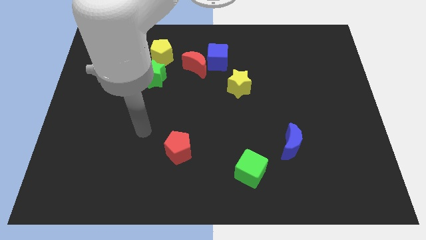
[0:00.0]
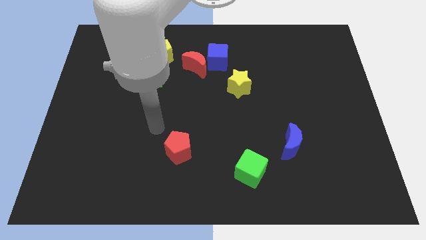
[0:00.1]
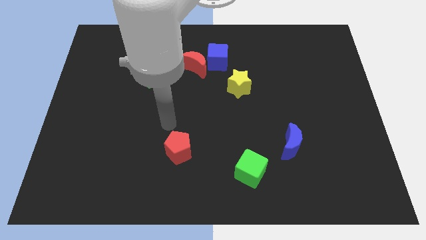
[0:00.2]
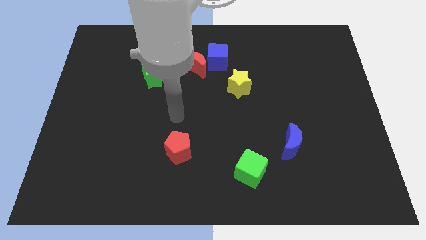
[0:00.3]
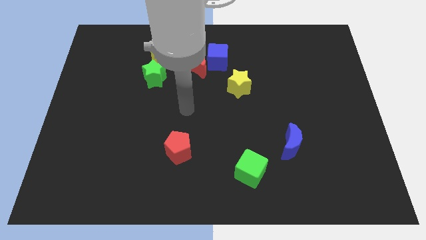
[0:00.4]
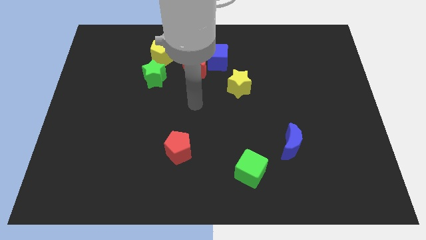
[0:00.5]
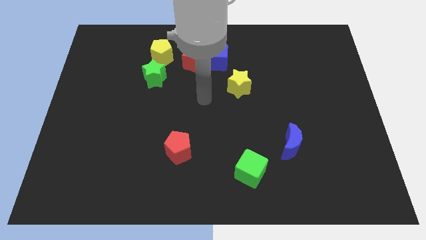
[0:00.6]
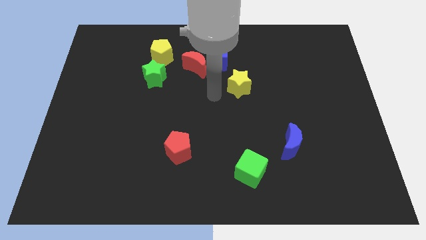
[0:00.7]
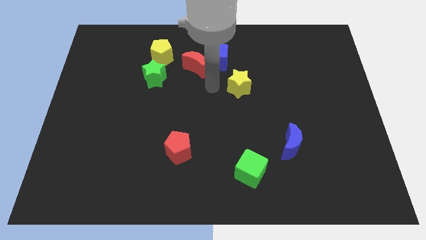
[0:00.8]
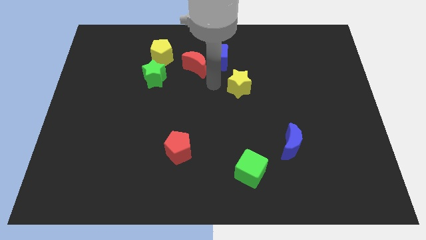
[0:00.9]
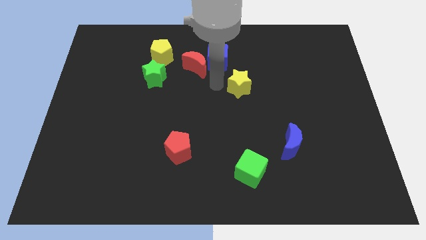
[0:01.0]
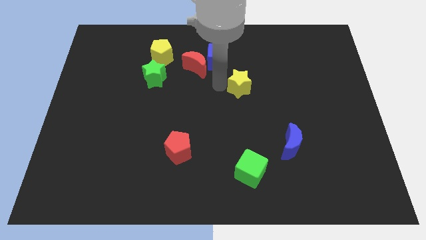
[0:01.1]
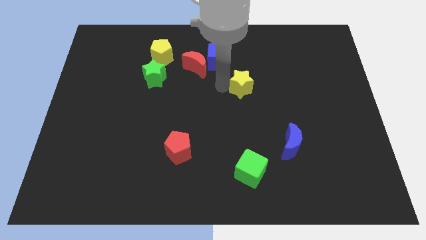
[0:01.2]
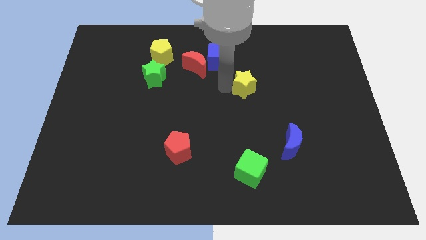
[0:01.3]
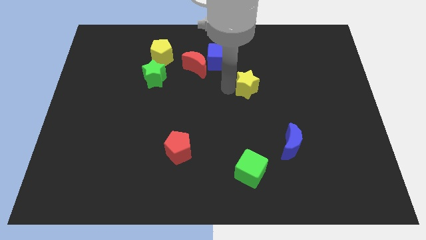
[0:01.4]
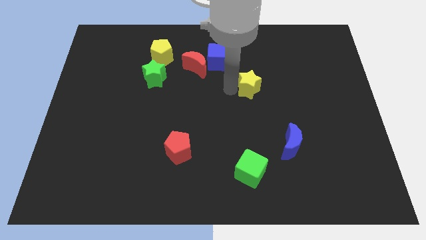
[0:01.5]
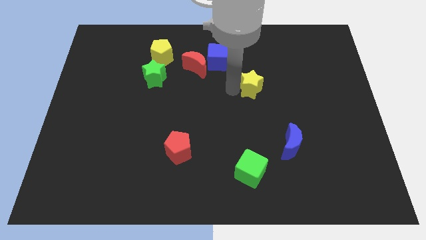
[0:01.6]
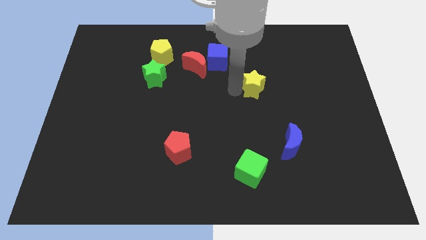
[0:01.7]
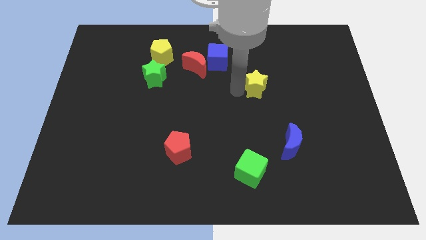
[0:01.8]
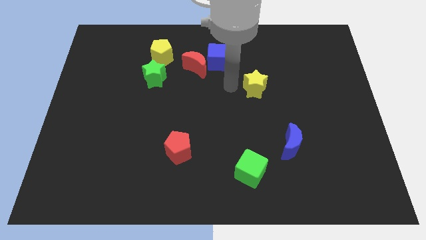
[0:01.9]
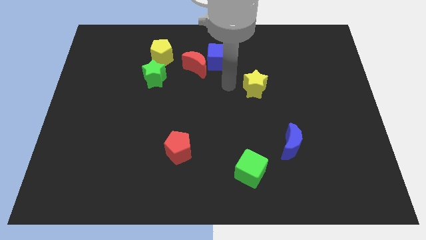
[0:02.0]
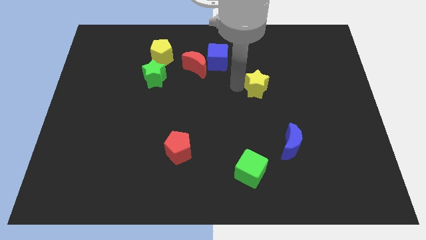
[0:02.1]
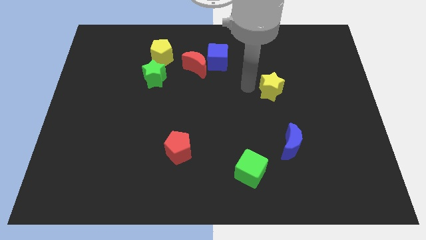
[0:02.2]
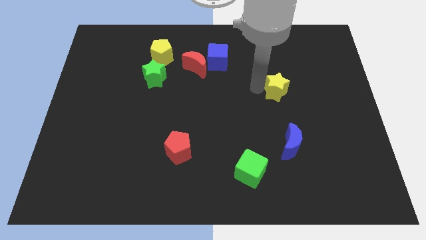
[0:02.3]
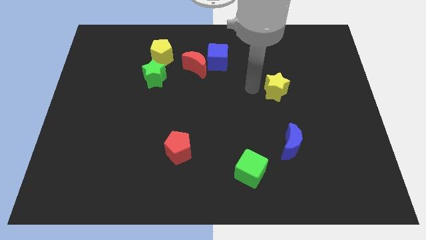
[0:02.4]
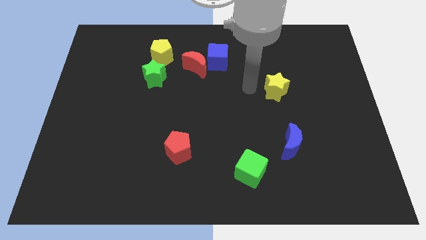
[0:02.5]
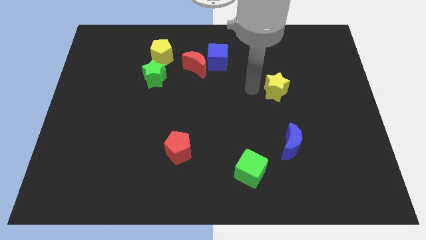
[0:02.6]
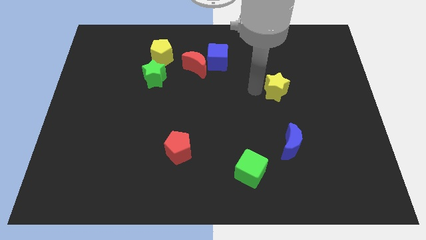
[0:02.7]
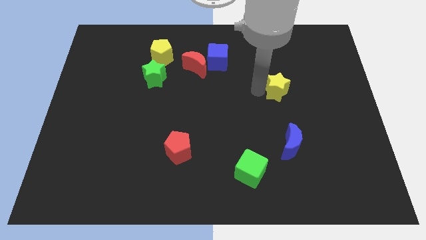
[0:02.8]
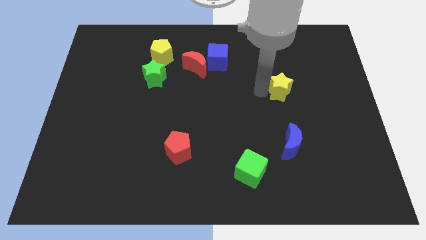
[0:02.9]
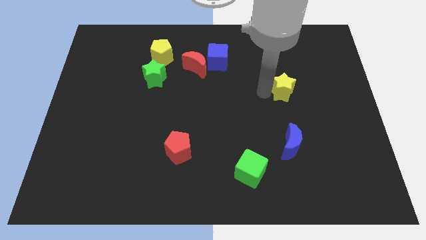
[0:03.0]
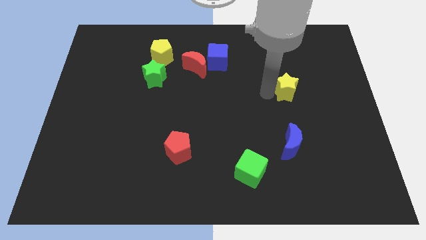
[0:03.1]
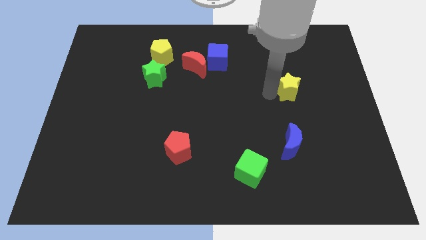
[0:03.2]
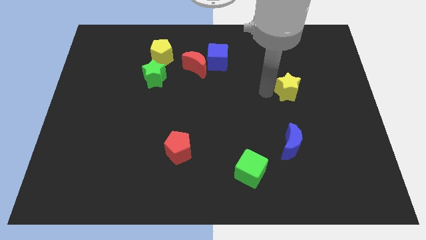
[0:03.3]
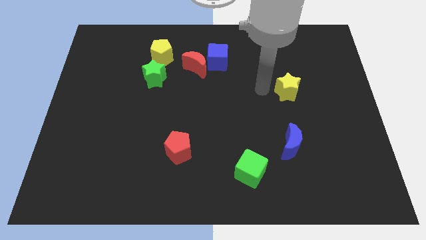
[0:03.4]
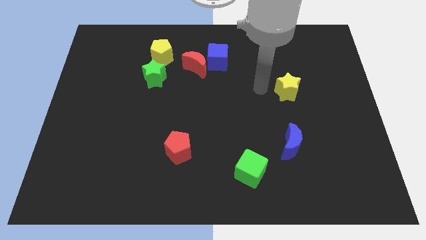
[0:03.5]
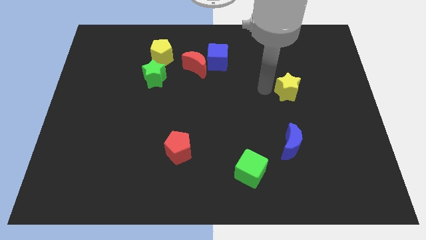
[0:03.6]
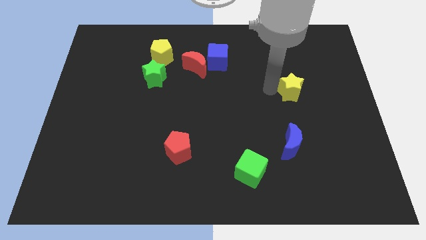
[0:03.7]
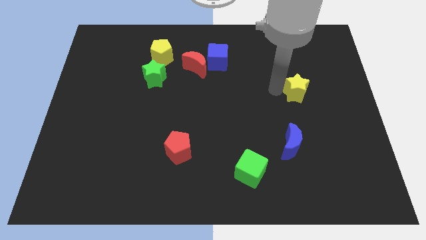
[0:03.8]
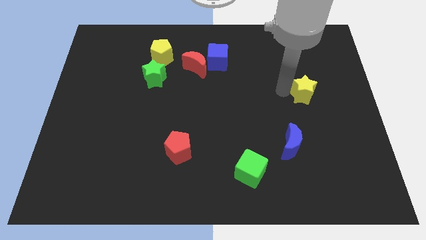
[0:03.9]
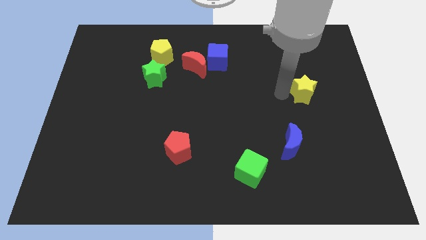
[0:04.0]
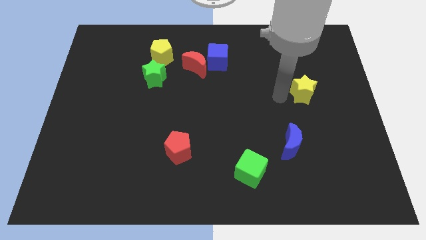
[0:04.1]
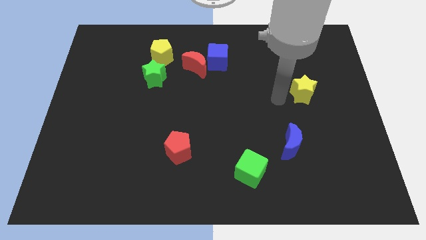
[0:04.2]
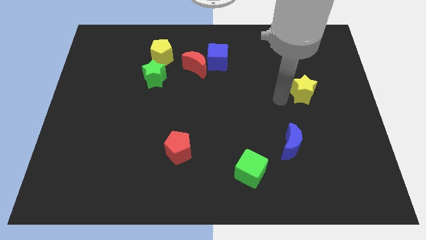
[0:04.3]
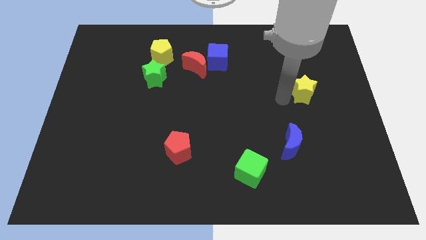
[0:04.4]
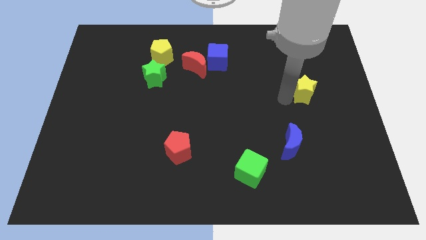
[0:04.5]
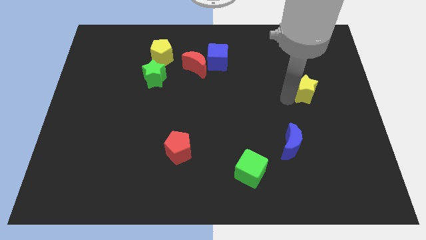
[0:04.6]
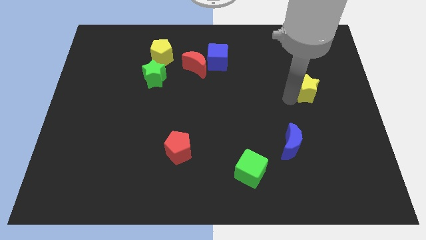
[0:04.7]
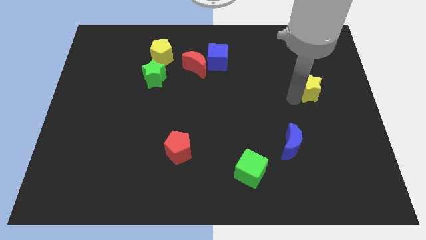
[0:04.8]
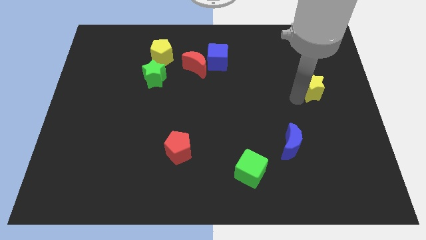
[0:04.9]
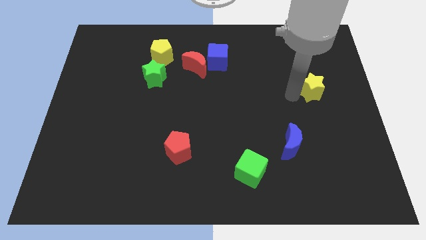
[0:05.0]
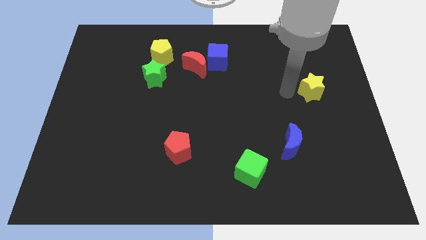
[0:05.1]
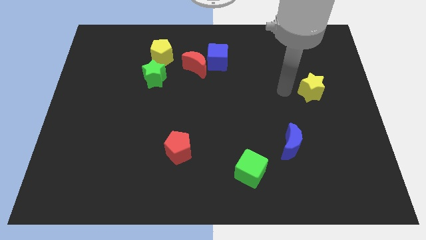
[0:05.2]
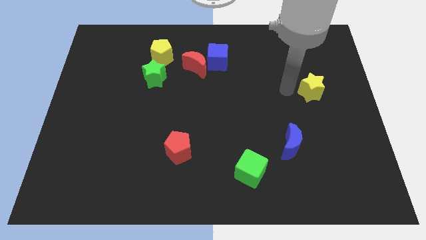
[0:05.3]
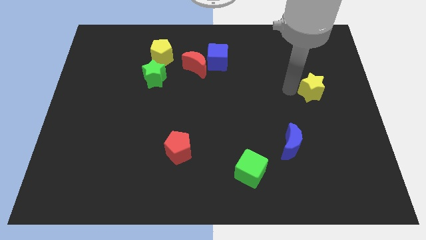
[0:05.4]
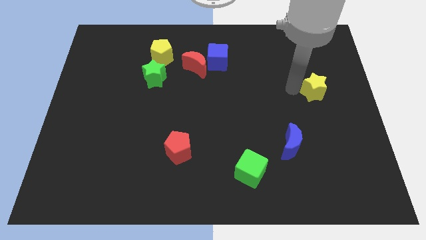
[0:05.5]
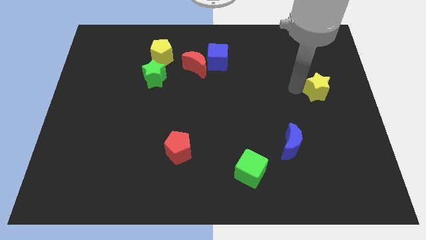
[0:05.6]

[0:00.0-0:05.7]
put the yellow star to the center right
